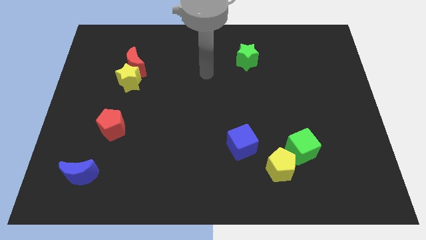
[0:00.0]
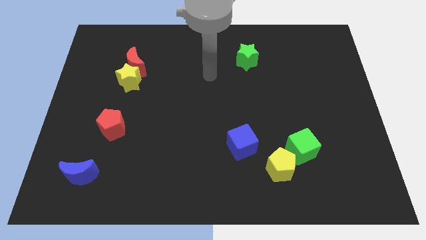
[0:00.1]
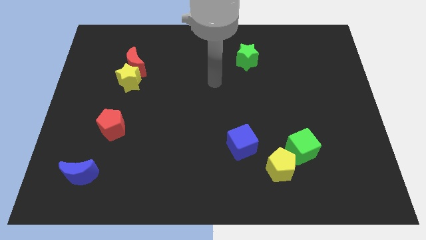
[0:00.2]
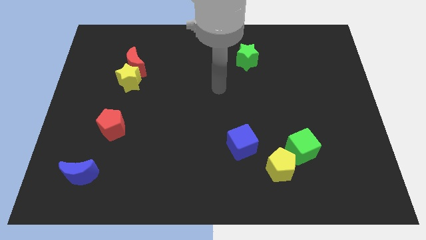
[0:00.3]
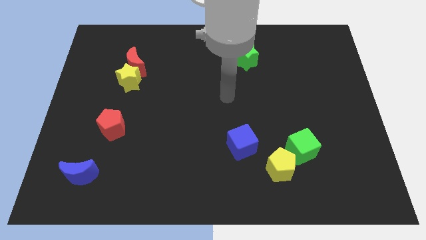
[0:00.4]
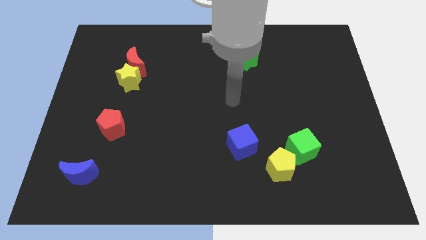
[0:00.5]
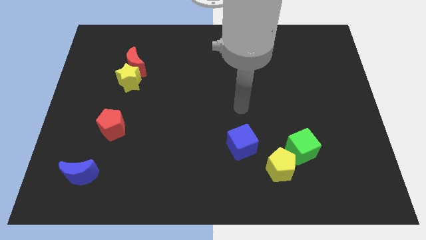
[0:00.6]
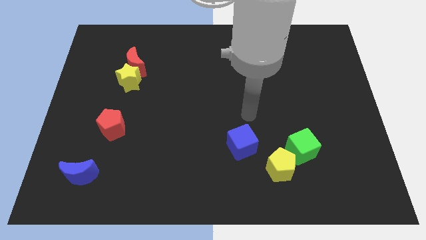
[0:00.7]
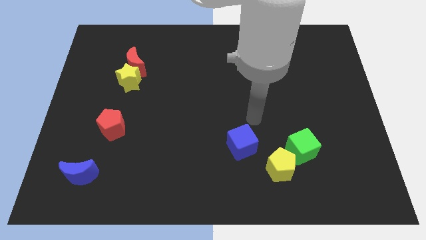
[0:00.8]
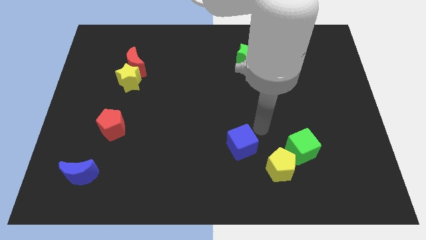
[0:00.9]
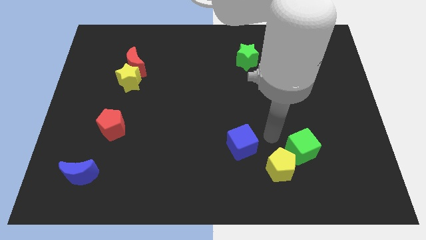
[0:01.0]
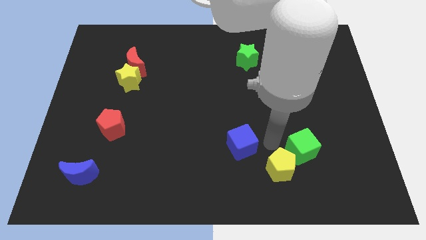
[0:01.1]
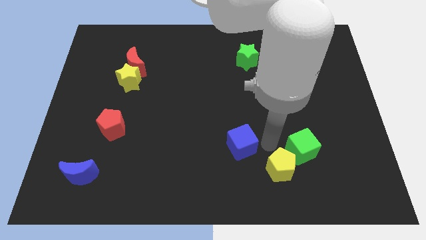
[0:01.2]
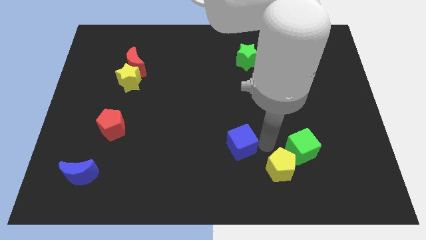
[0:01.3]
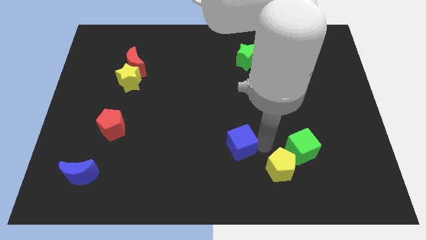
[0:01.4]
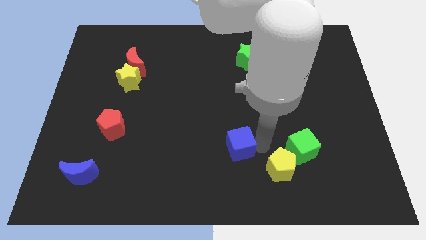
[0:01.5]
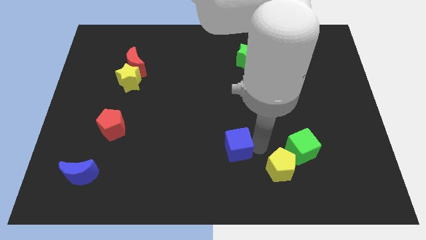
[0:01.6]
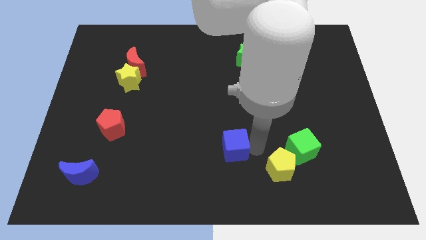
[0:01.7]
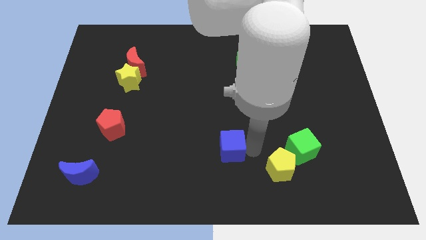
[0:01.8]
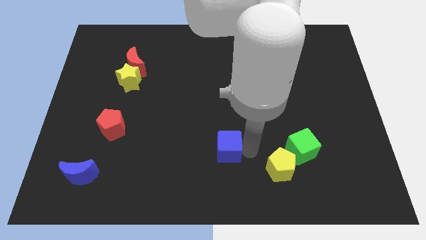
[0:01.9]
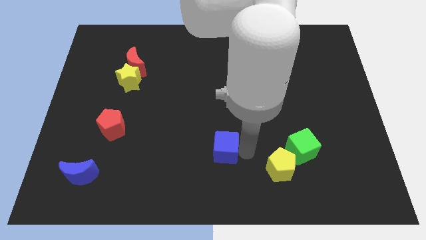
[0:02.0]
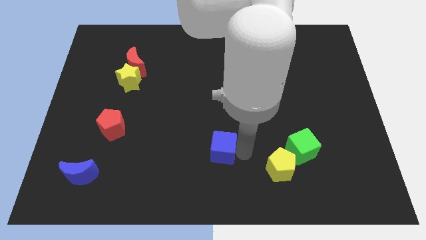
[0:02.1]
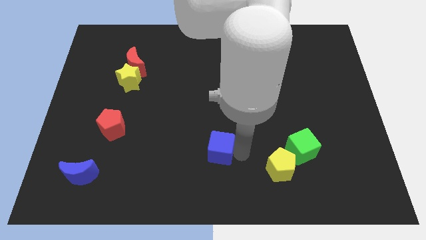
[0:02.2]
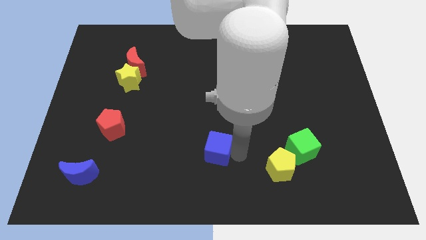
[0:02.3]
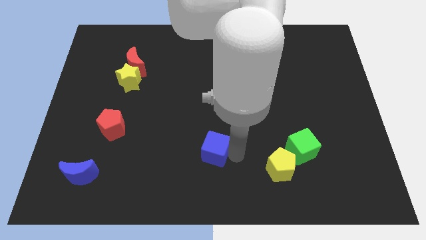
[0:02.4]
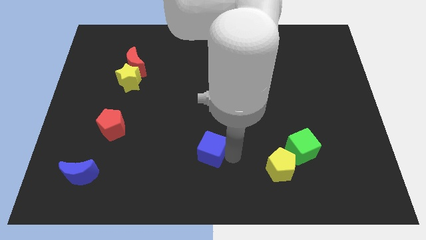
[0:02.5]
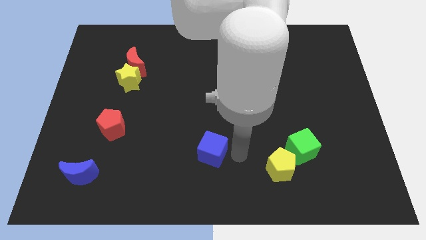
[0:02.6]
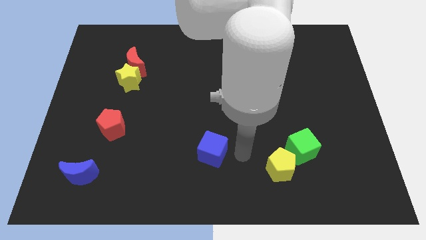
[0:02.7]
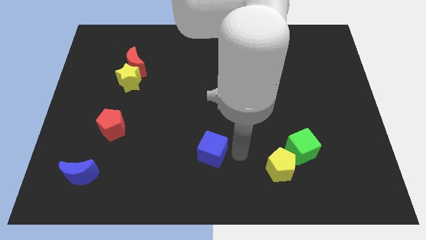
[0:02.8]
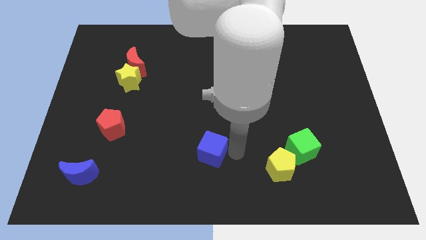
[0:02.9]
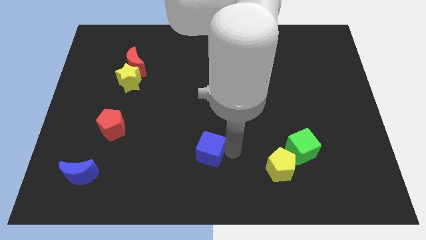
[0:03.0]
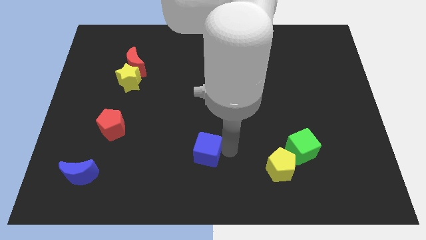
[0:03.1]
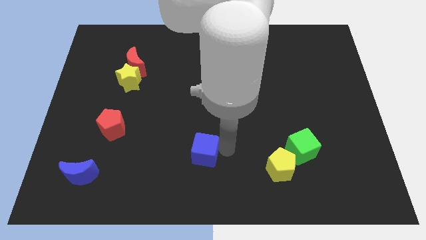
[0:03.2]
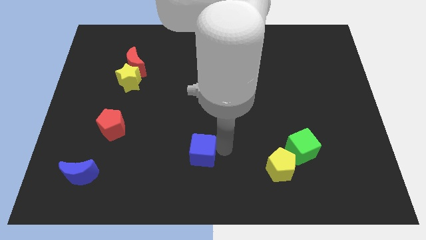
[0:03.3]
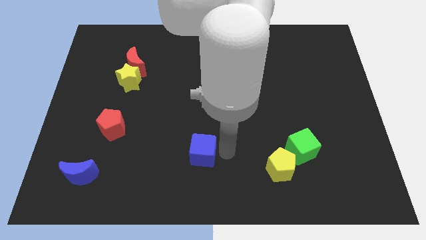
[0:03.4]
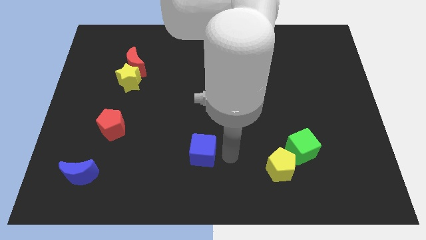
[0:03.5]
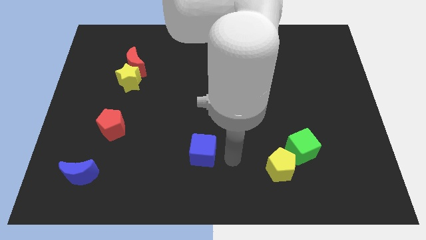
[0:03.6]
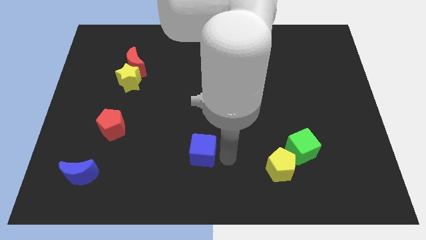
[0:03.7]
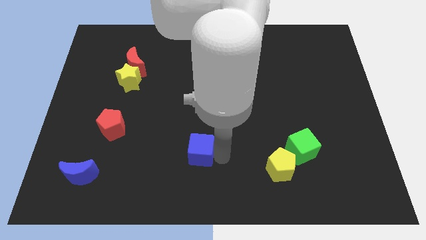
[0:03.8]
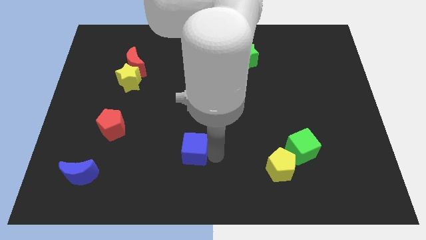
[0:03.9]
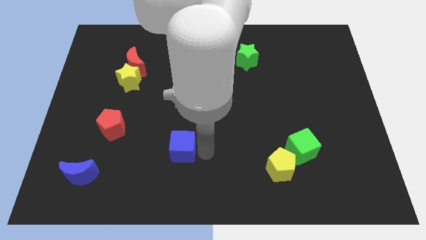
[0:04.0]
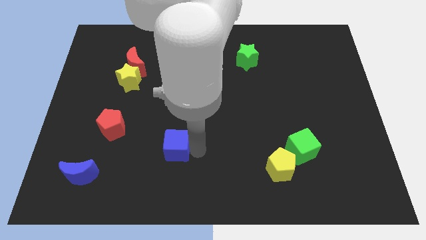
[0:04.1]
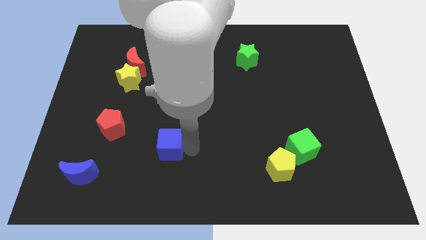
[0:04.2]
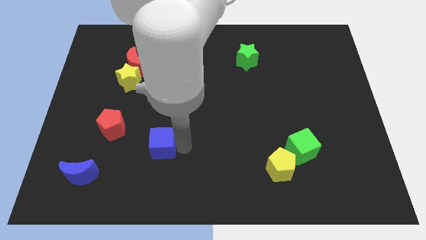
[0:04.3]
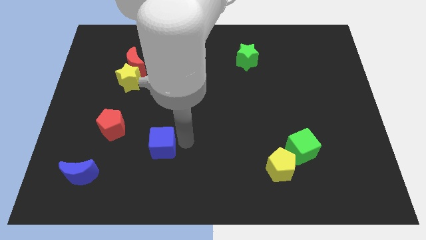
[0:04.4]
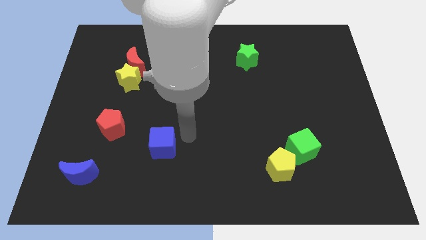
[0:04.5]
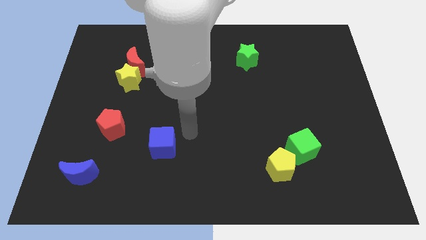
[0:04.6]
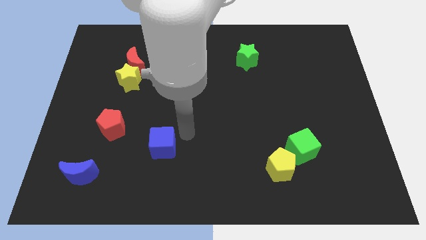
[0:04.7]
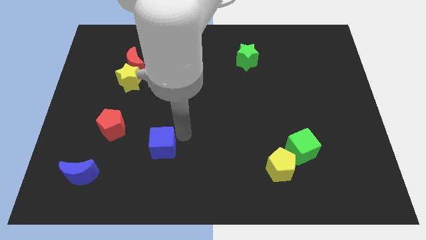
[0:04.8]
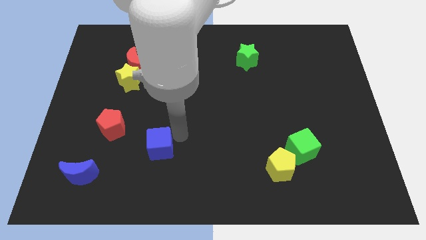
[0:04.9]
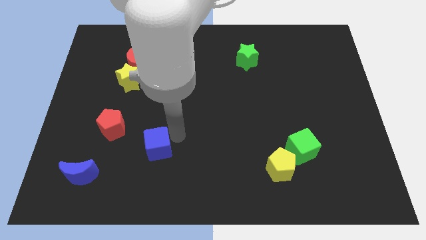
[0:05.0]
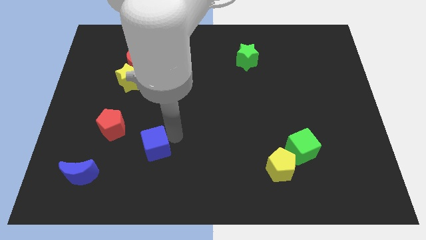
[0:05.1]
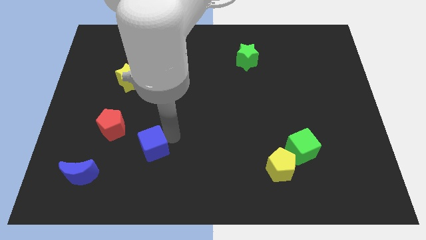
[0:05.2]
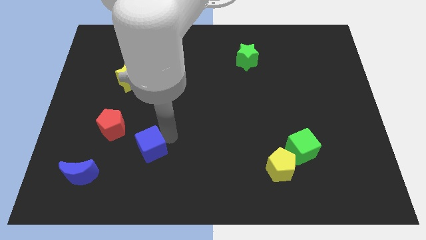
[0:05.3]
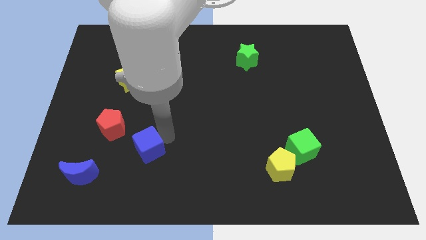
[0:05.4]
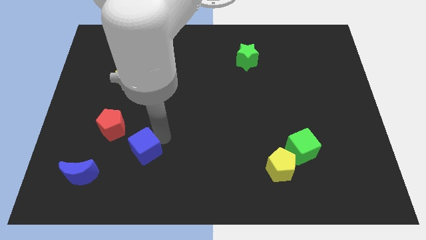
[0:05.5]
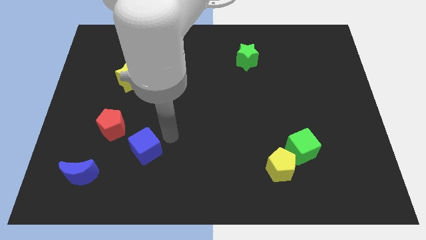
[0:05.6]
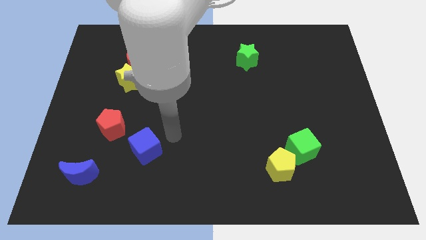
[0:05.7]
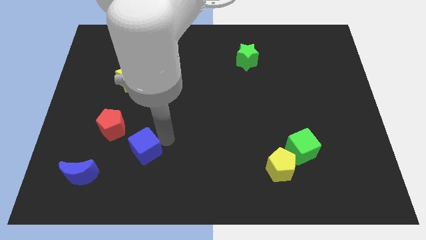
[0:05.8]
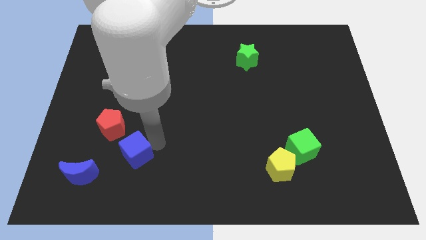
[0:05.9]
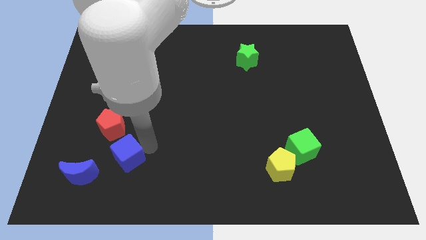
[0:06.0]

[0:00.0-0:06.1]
push the blue cube below the red pentagon

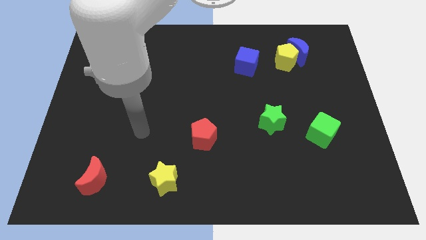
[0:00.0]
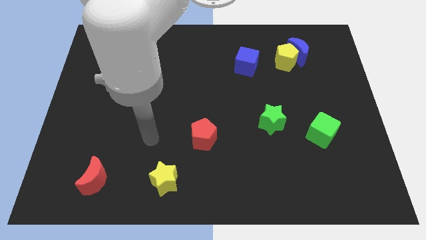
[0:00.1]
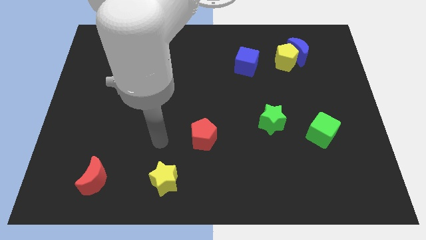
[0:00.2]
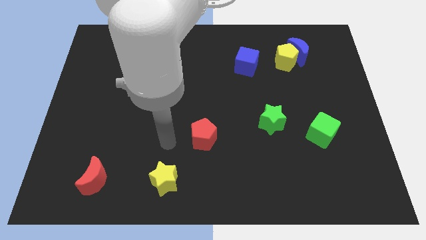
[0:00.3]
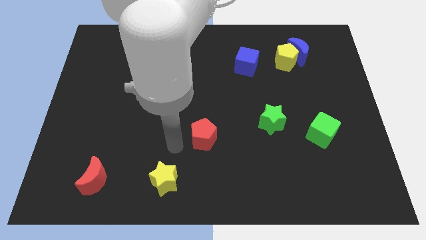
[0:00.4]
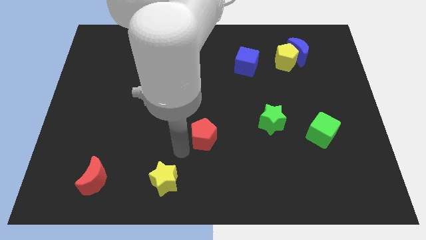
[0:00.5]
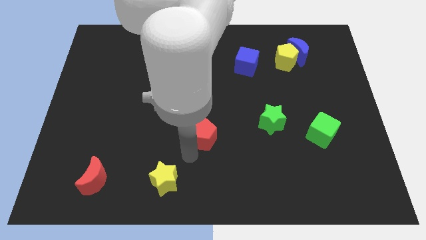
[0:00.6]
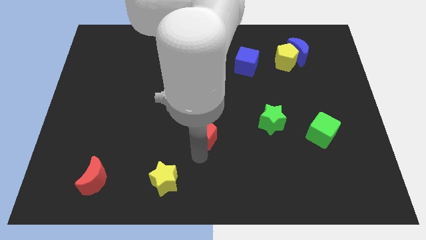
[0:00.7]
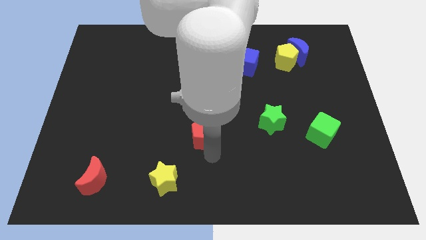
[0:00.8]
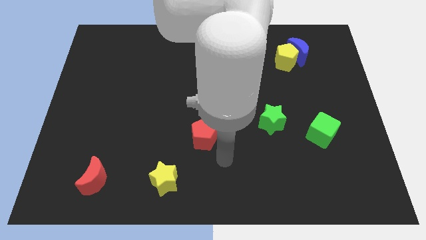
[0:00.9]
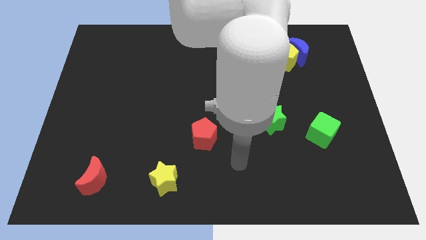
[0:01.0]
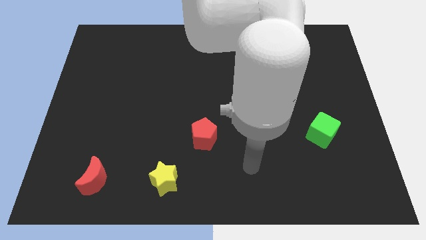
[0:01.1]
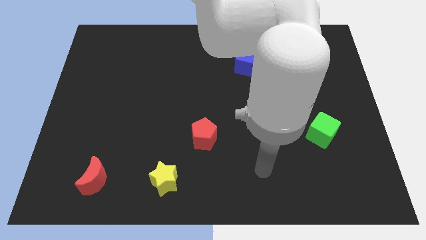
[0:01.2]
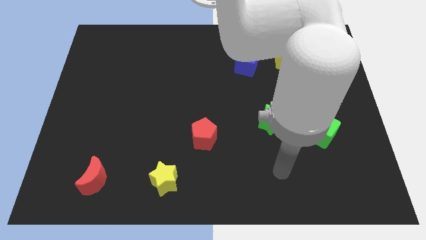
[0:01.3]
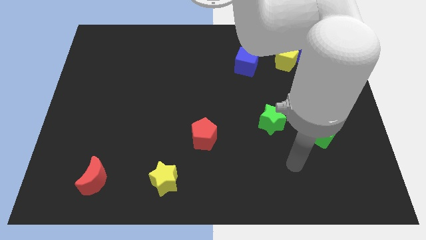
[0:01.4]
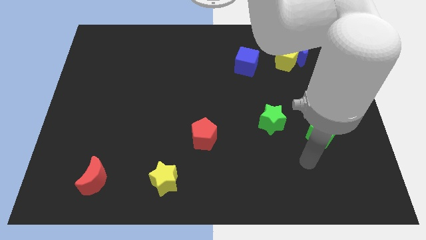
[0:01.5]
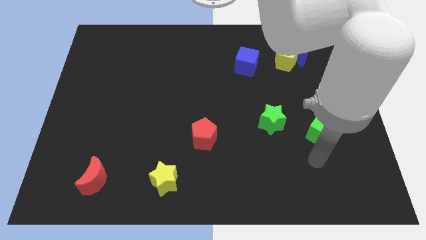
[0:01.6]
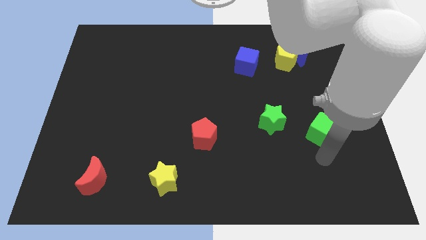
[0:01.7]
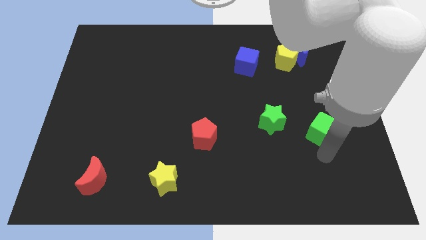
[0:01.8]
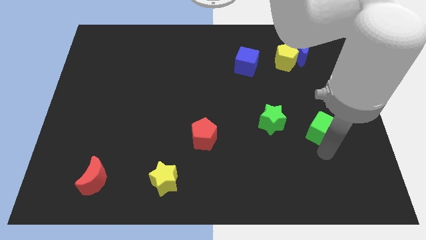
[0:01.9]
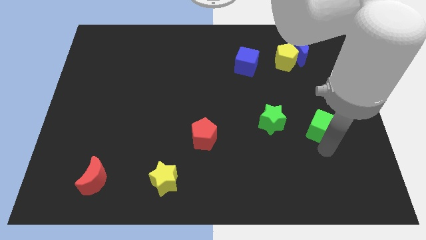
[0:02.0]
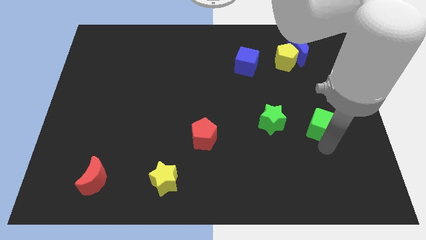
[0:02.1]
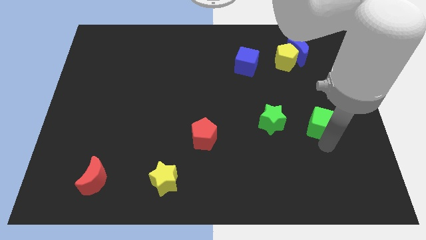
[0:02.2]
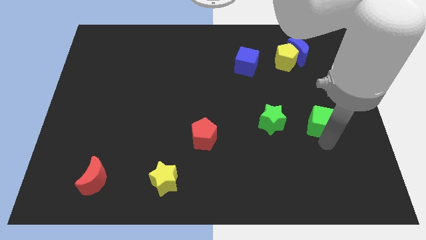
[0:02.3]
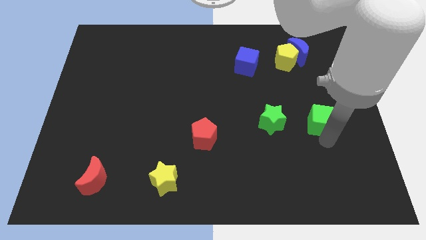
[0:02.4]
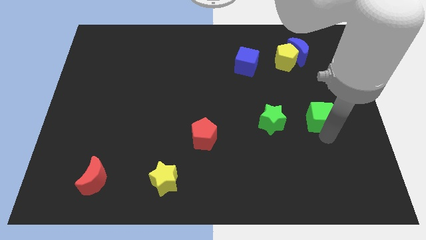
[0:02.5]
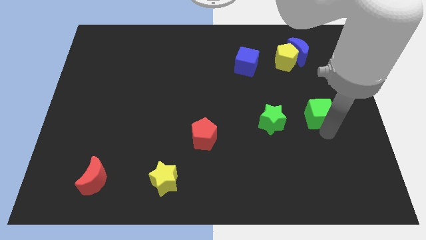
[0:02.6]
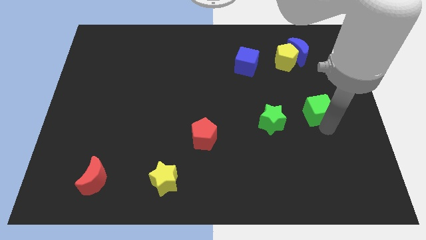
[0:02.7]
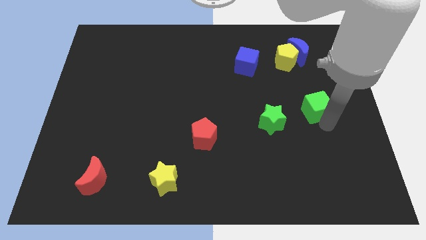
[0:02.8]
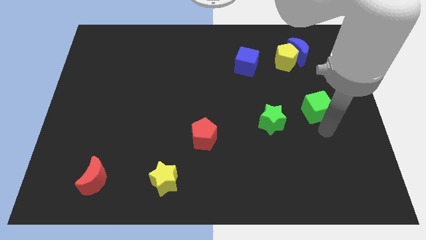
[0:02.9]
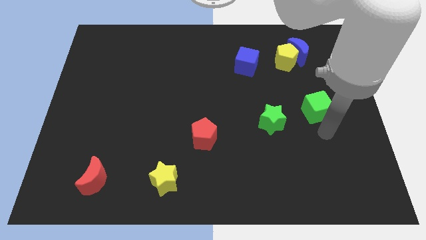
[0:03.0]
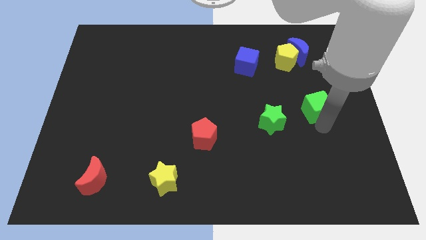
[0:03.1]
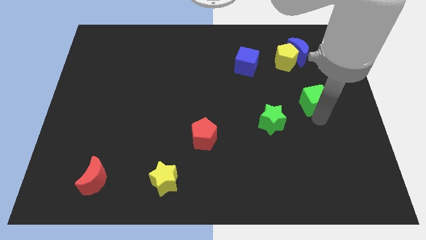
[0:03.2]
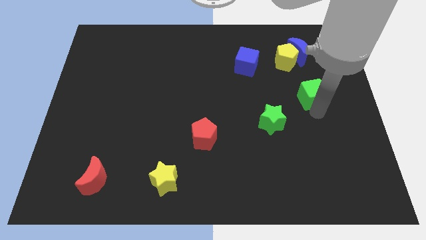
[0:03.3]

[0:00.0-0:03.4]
put the green cube to the bottom of the blue moon
